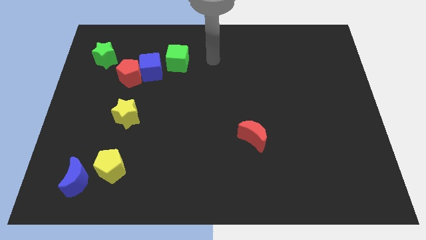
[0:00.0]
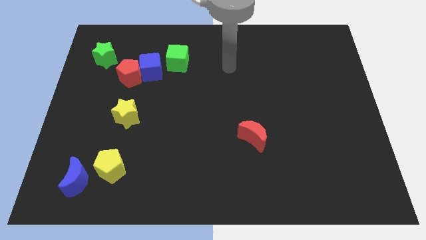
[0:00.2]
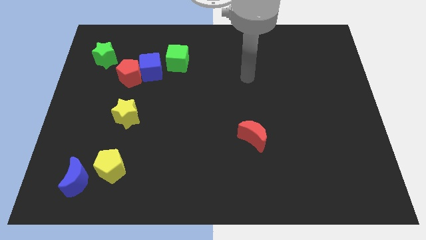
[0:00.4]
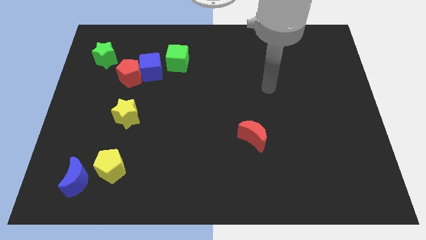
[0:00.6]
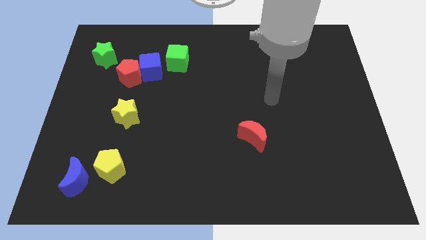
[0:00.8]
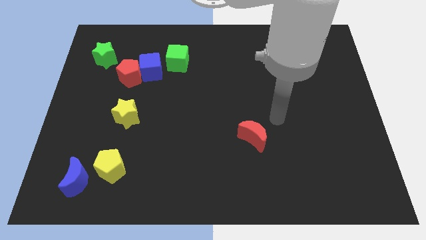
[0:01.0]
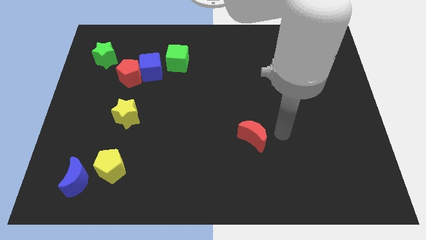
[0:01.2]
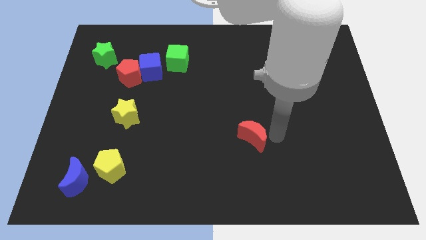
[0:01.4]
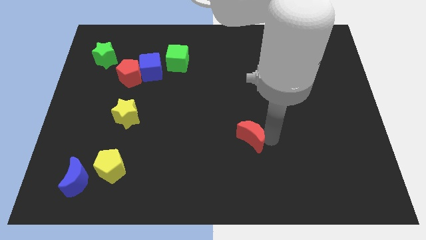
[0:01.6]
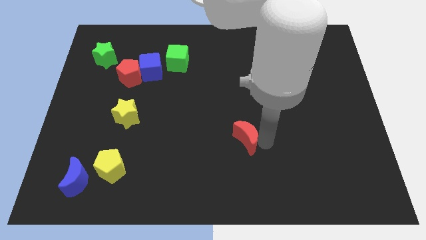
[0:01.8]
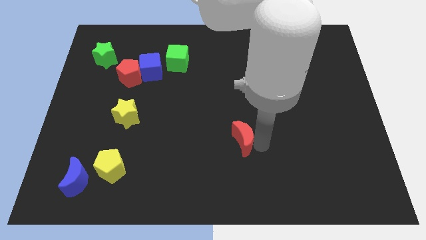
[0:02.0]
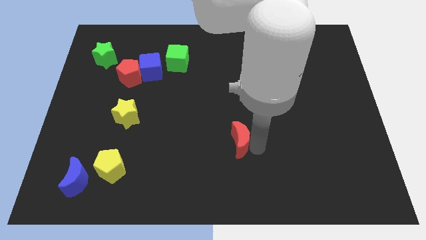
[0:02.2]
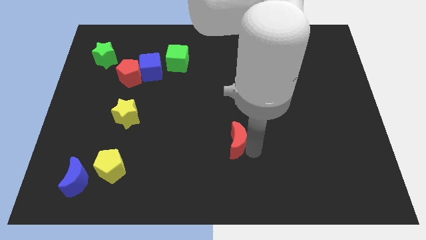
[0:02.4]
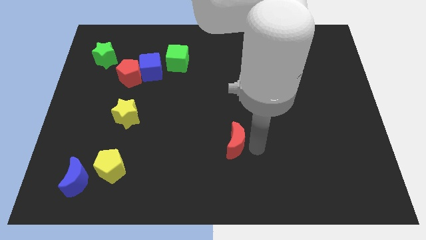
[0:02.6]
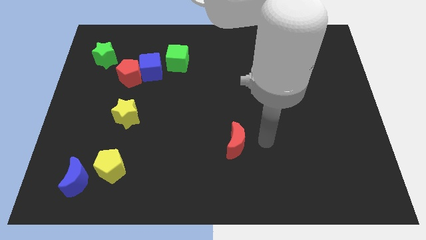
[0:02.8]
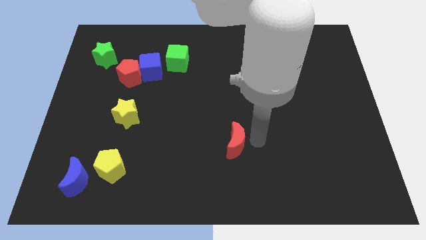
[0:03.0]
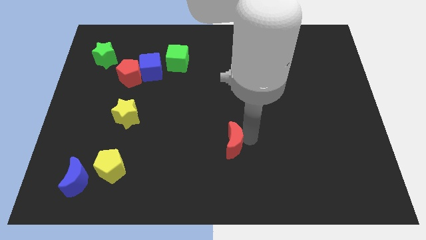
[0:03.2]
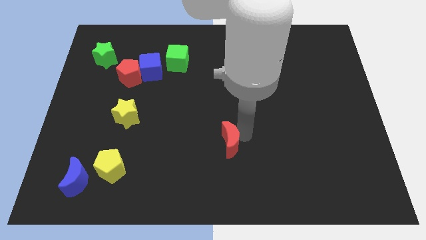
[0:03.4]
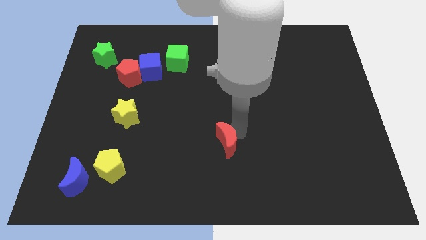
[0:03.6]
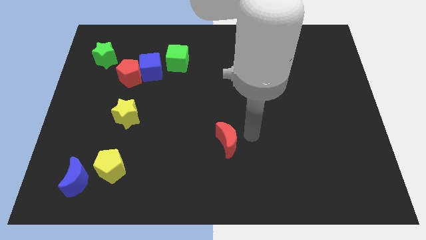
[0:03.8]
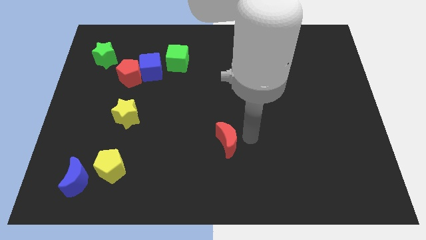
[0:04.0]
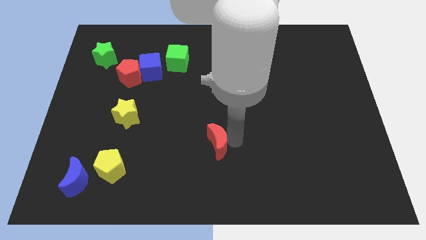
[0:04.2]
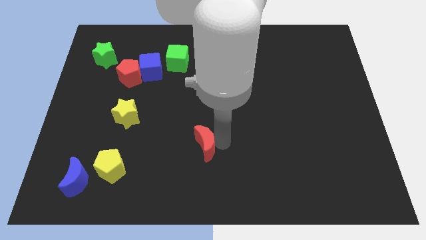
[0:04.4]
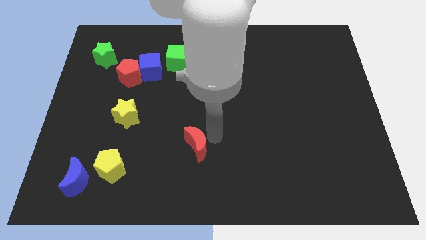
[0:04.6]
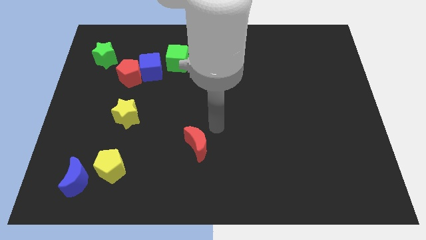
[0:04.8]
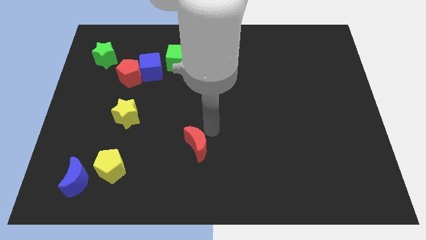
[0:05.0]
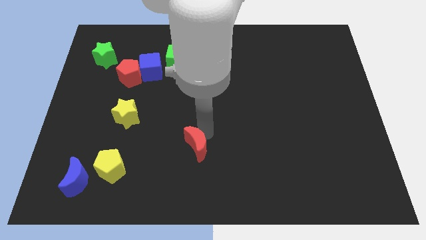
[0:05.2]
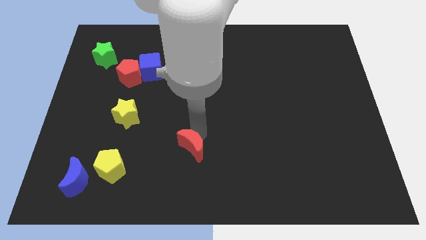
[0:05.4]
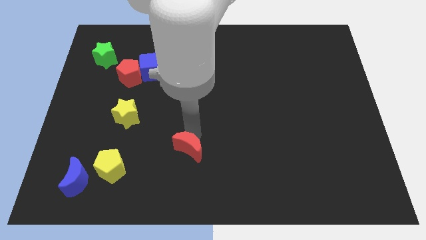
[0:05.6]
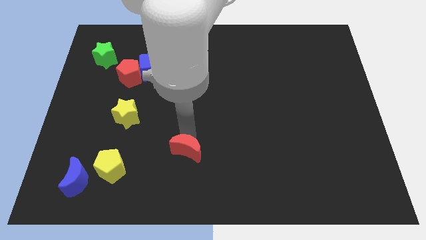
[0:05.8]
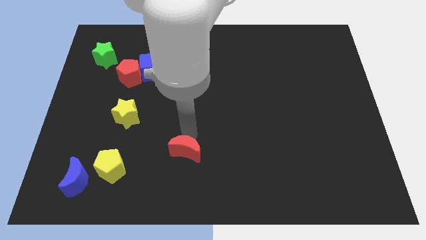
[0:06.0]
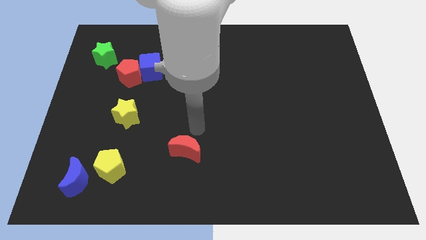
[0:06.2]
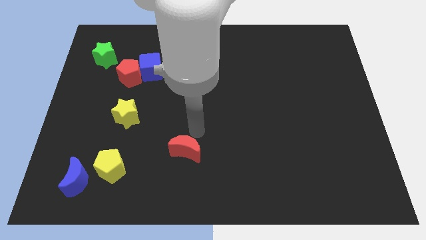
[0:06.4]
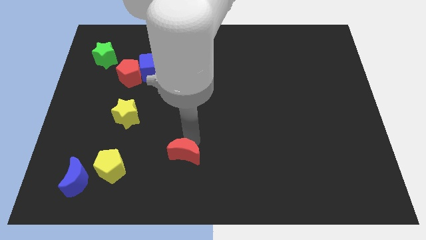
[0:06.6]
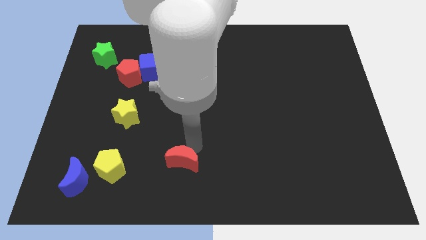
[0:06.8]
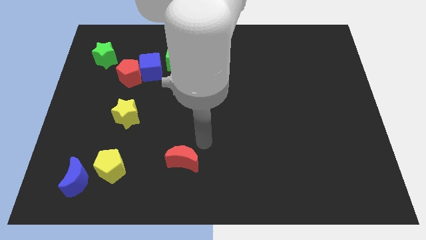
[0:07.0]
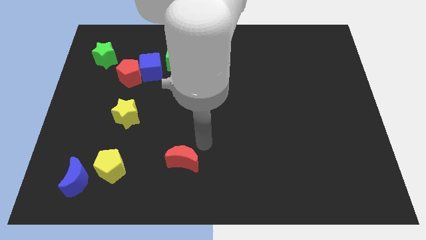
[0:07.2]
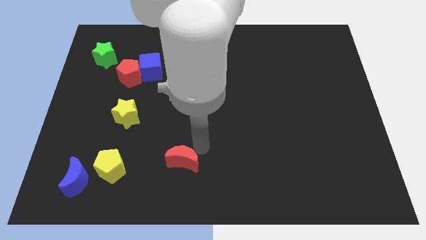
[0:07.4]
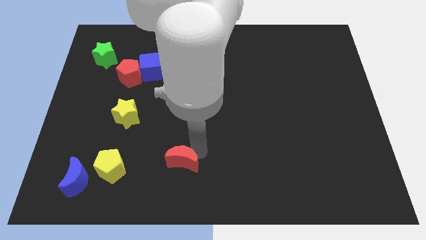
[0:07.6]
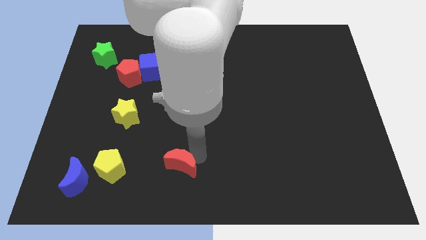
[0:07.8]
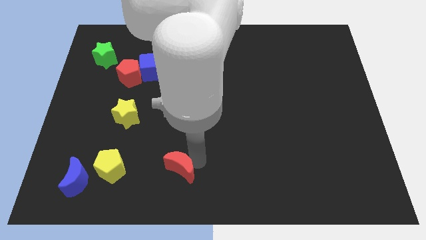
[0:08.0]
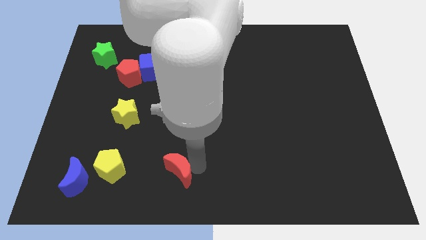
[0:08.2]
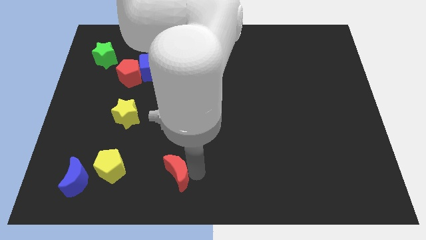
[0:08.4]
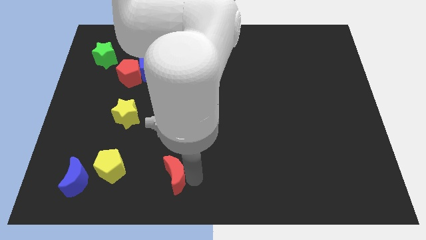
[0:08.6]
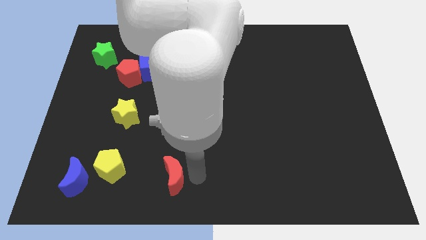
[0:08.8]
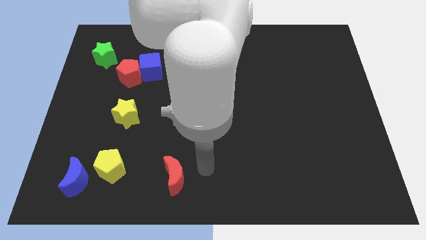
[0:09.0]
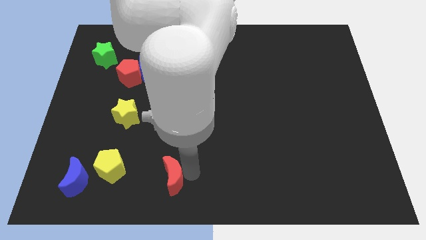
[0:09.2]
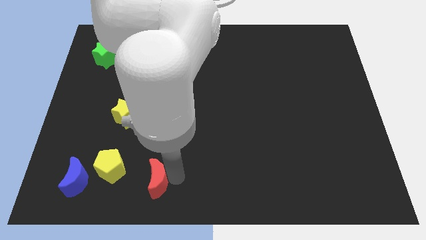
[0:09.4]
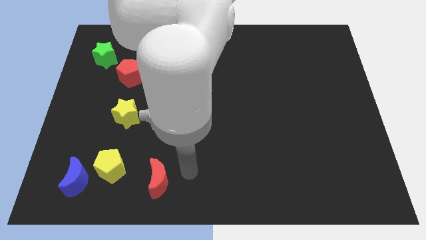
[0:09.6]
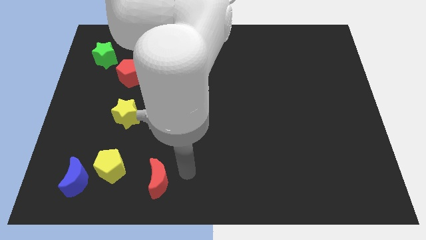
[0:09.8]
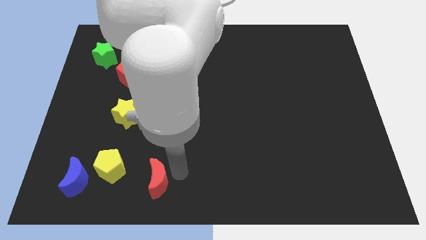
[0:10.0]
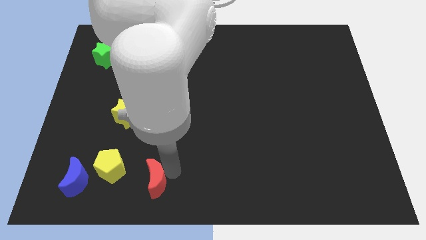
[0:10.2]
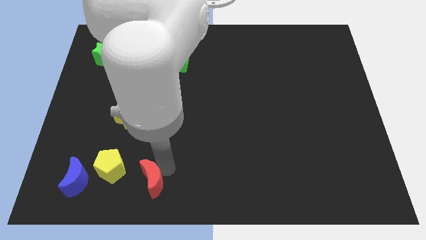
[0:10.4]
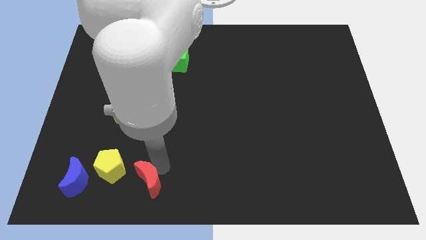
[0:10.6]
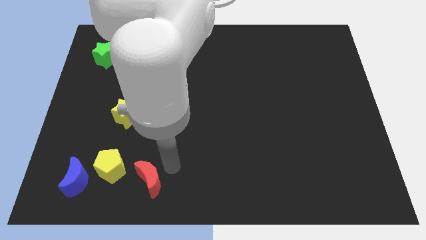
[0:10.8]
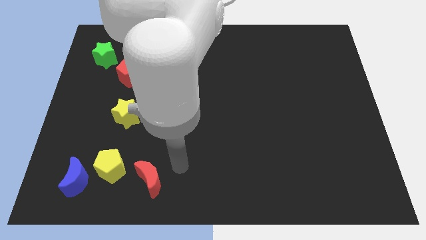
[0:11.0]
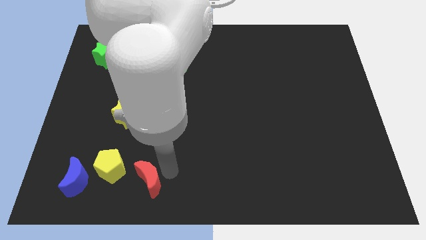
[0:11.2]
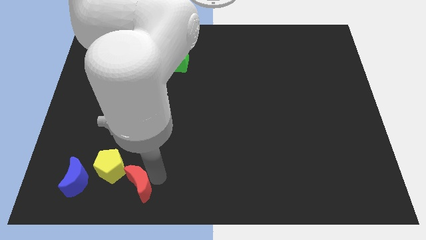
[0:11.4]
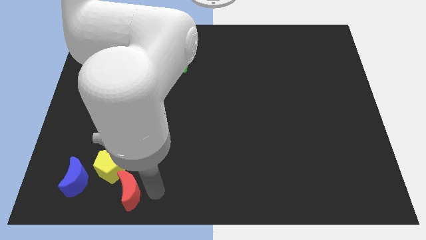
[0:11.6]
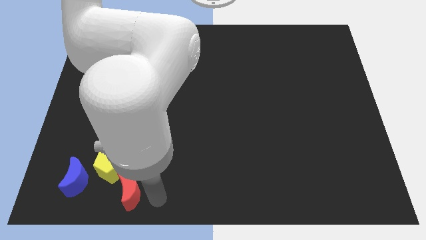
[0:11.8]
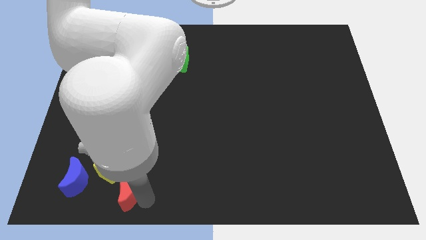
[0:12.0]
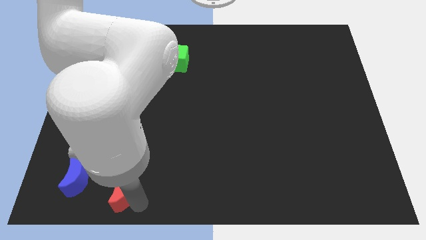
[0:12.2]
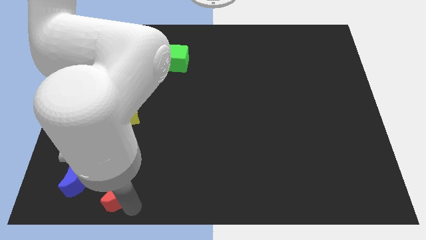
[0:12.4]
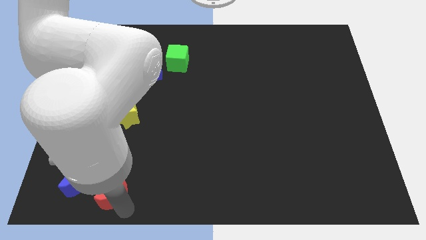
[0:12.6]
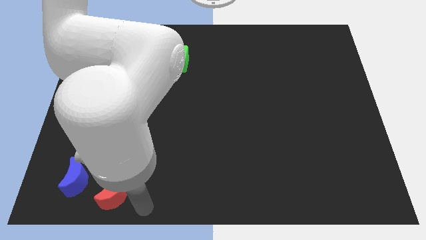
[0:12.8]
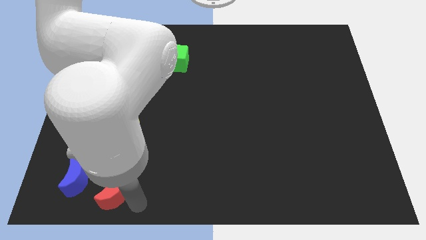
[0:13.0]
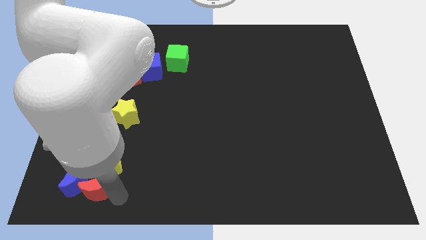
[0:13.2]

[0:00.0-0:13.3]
push the red moon close to the blue moon

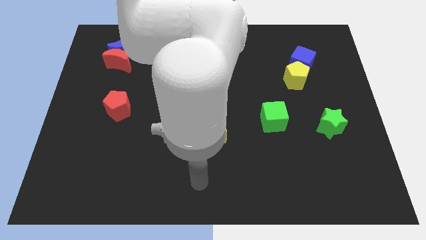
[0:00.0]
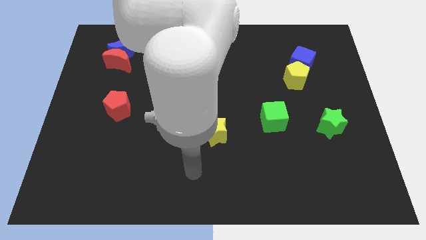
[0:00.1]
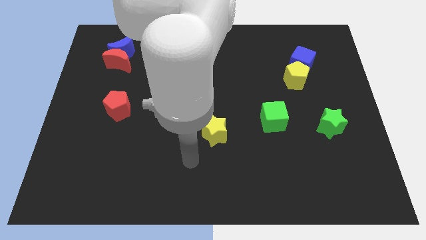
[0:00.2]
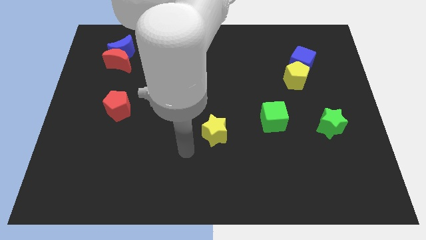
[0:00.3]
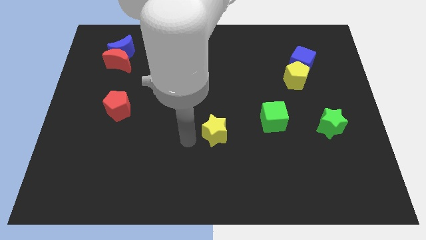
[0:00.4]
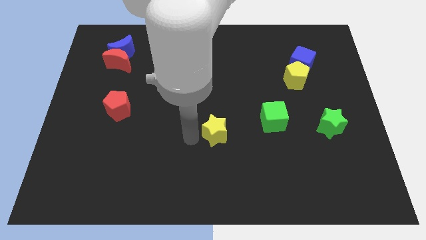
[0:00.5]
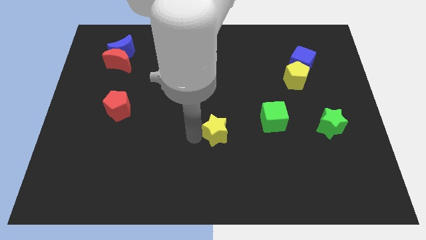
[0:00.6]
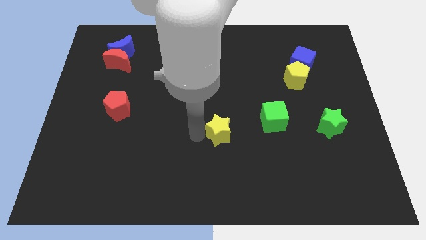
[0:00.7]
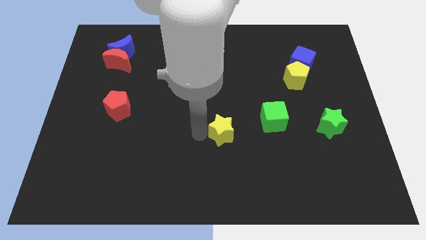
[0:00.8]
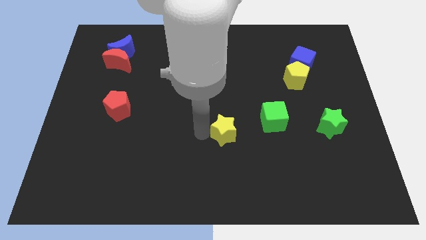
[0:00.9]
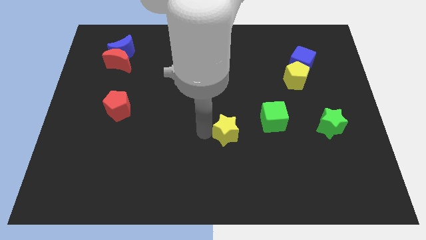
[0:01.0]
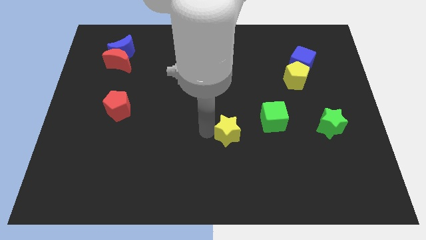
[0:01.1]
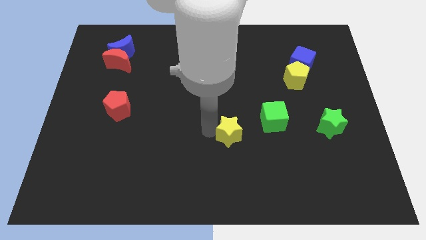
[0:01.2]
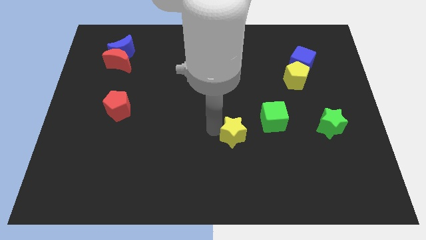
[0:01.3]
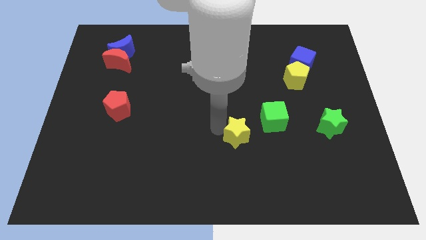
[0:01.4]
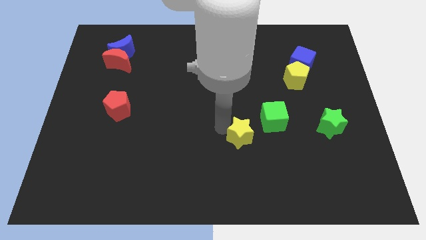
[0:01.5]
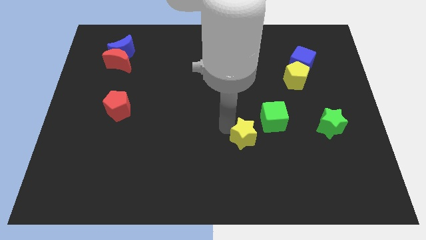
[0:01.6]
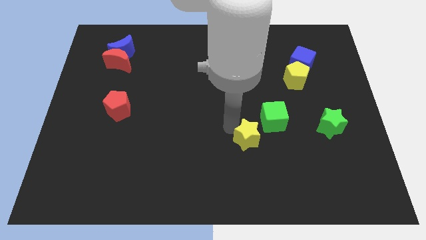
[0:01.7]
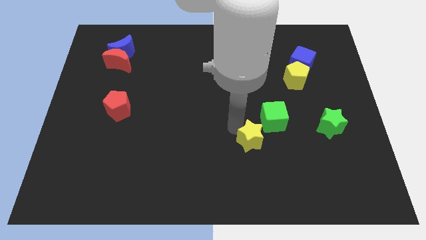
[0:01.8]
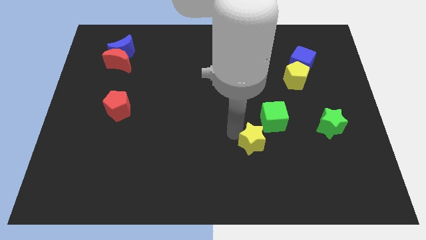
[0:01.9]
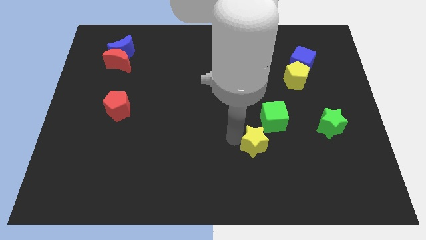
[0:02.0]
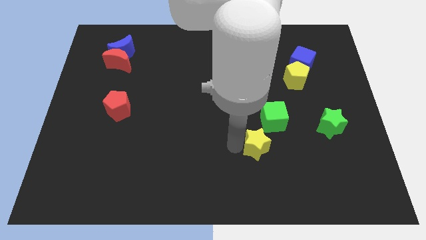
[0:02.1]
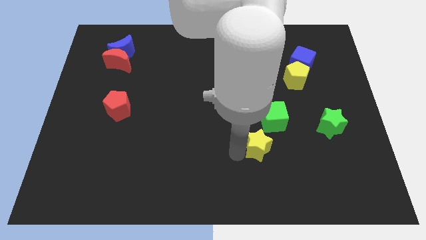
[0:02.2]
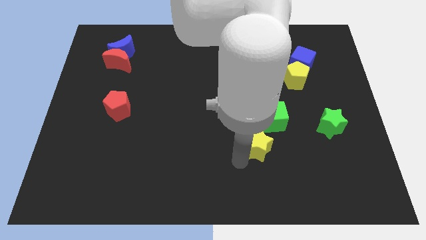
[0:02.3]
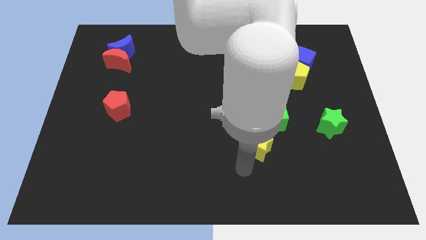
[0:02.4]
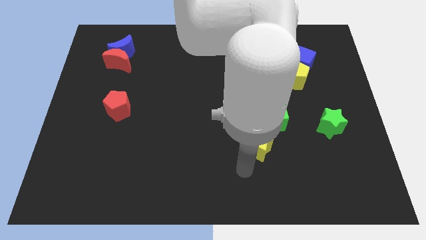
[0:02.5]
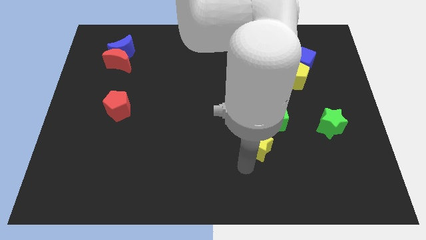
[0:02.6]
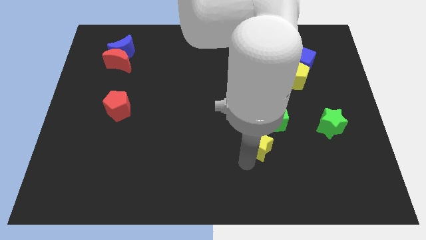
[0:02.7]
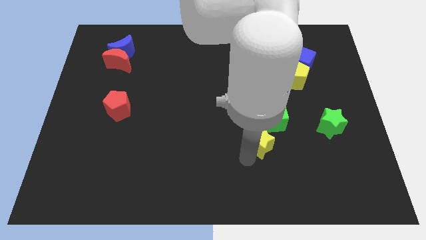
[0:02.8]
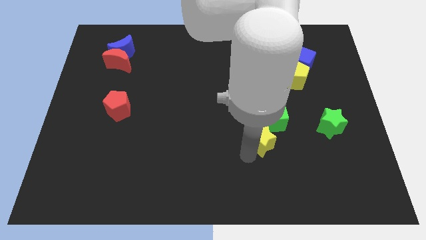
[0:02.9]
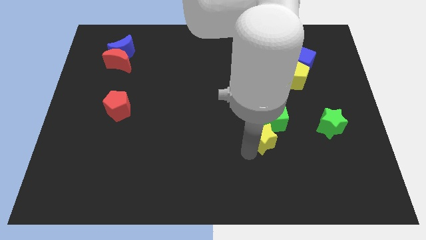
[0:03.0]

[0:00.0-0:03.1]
push the yellow star towards the green cube
